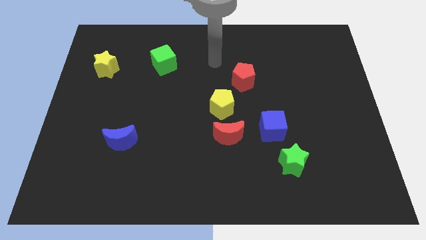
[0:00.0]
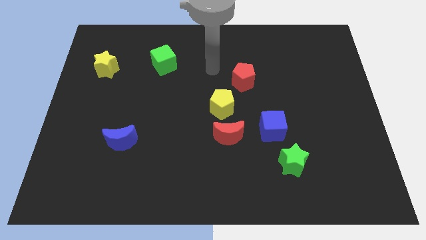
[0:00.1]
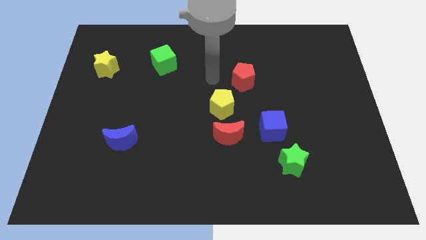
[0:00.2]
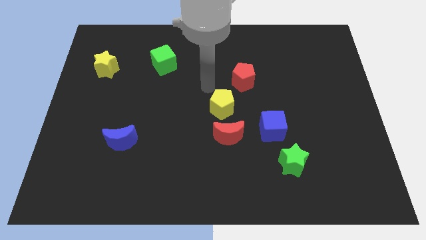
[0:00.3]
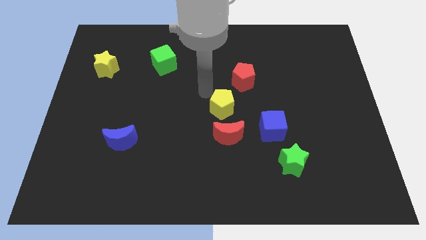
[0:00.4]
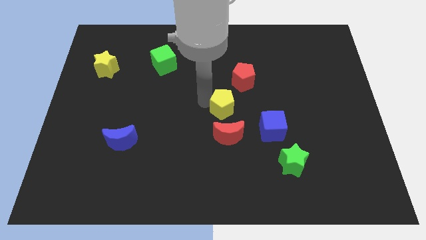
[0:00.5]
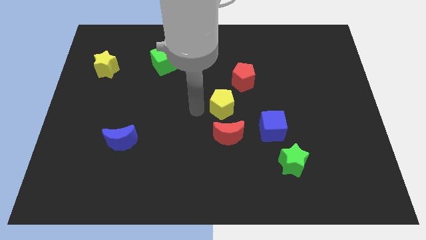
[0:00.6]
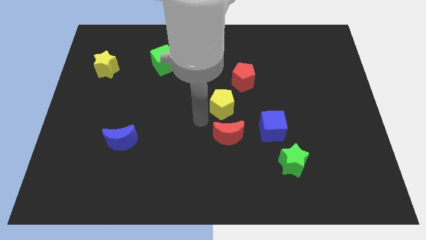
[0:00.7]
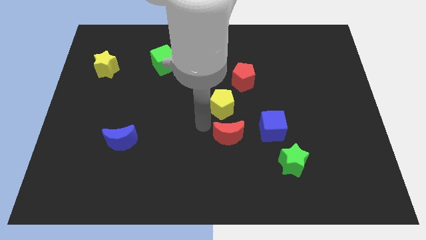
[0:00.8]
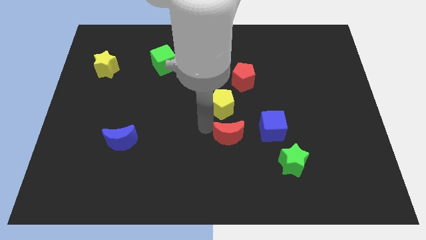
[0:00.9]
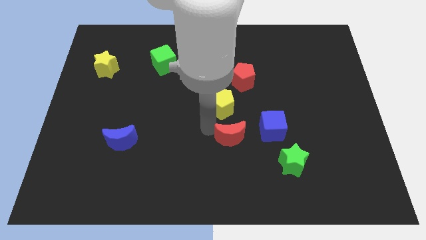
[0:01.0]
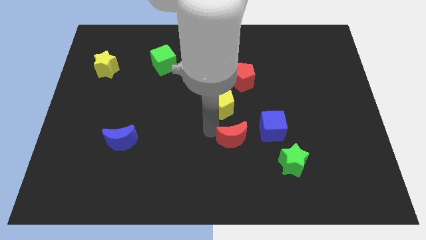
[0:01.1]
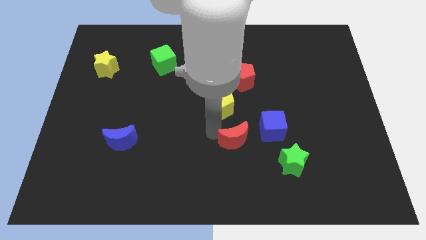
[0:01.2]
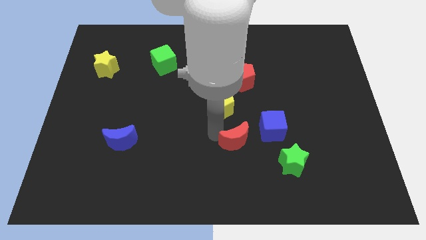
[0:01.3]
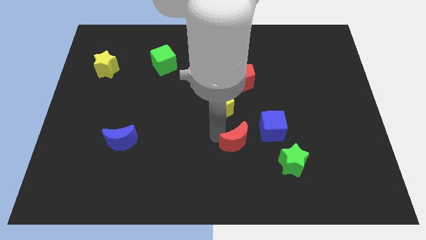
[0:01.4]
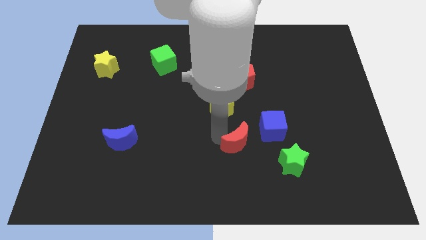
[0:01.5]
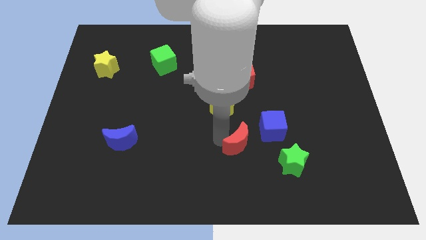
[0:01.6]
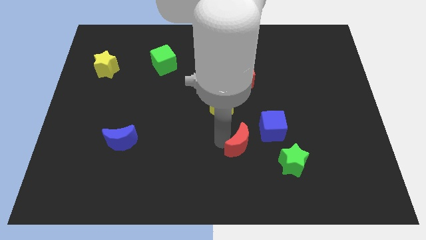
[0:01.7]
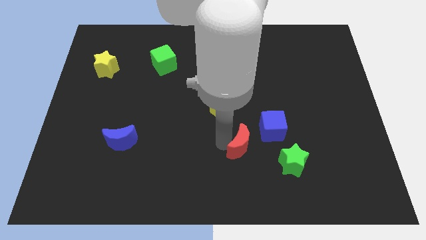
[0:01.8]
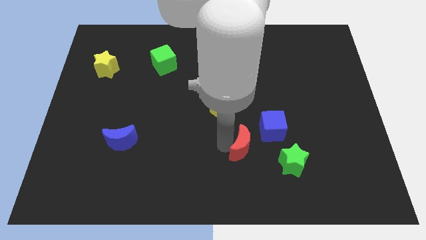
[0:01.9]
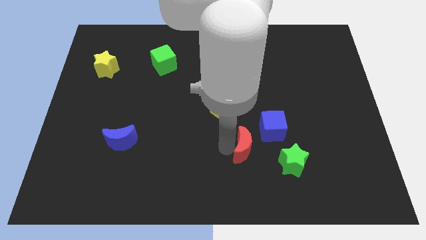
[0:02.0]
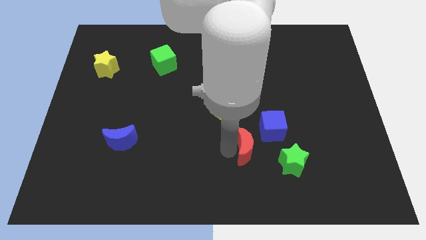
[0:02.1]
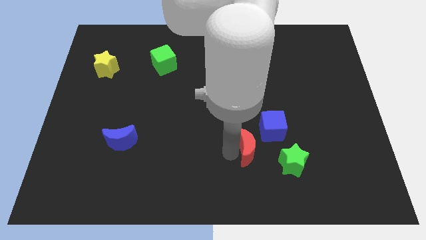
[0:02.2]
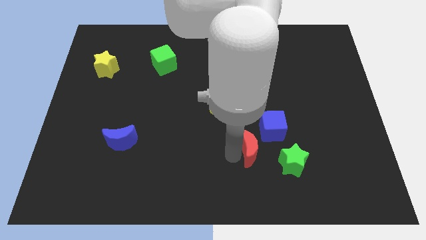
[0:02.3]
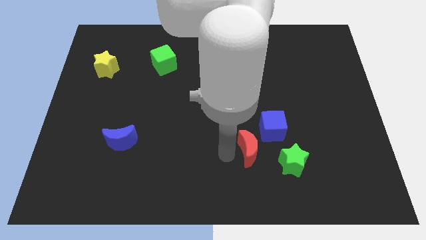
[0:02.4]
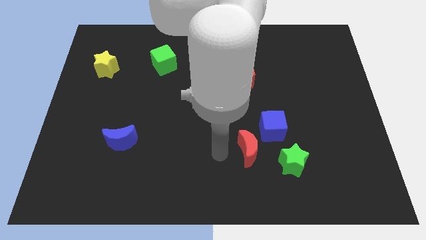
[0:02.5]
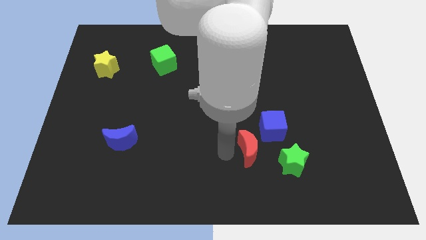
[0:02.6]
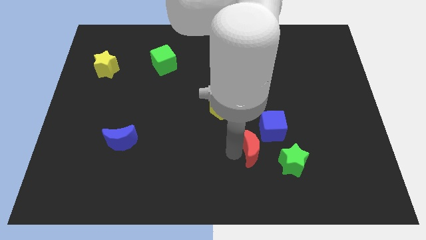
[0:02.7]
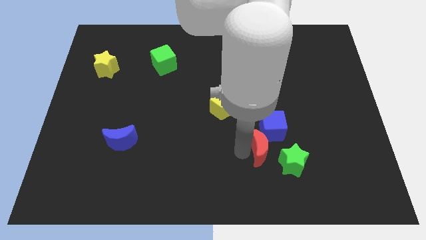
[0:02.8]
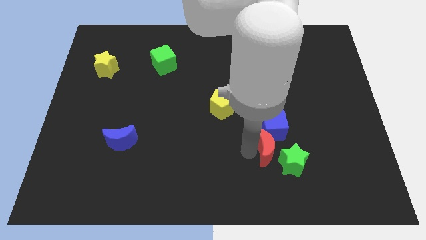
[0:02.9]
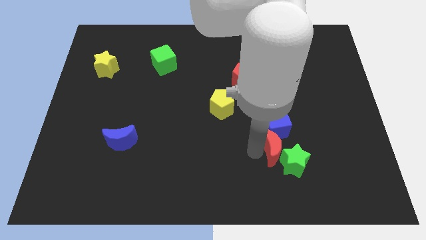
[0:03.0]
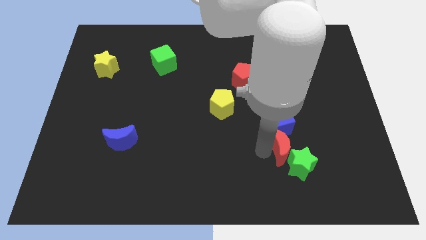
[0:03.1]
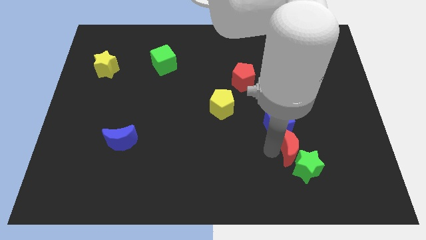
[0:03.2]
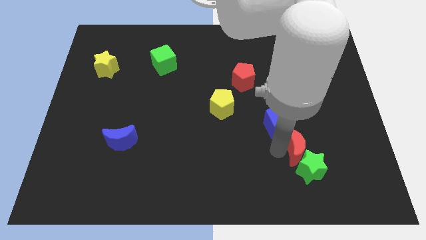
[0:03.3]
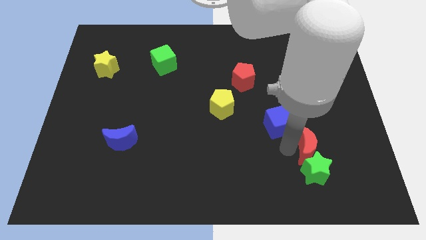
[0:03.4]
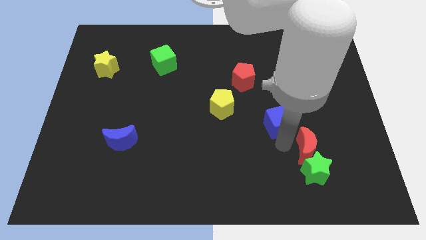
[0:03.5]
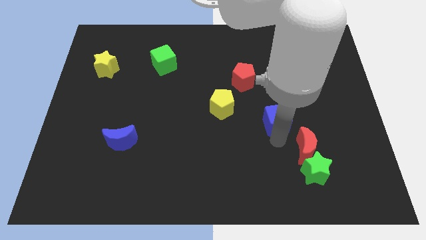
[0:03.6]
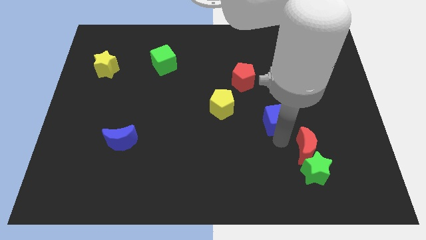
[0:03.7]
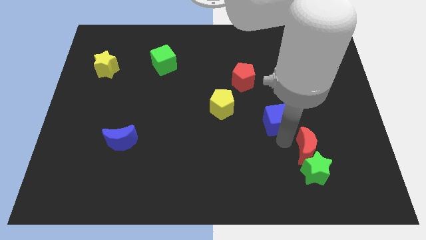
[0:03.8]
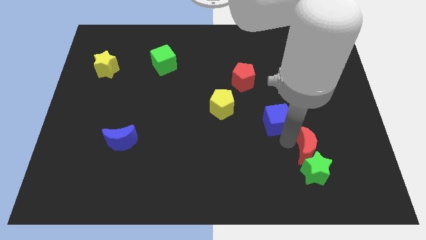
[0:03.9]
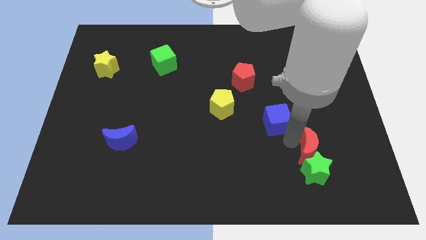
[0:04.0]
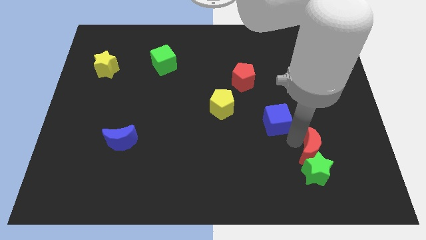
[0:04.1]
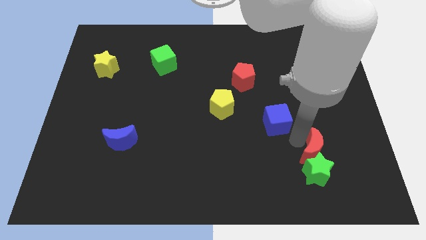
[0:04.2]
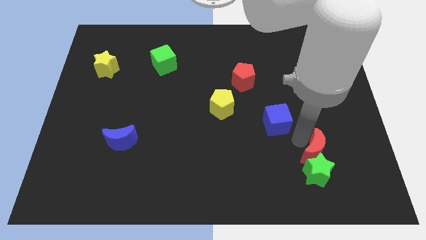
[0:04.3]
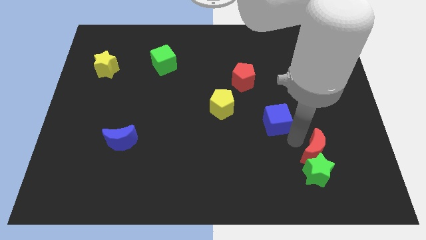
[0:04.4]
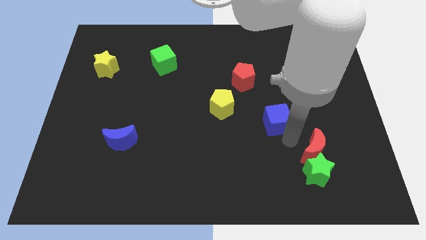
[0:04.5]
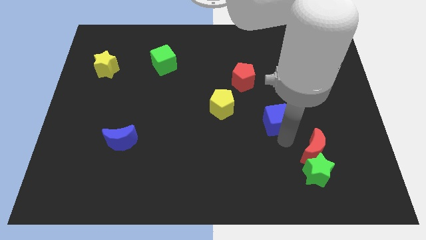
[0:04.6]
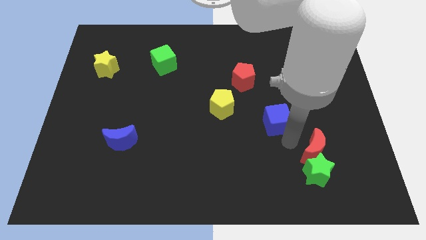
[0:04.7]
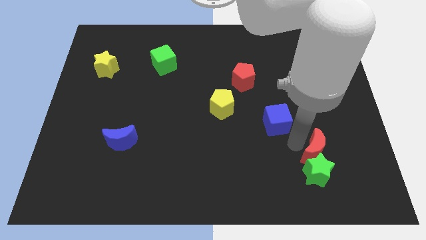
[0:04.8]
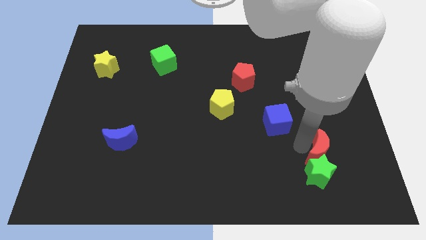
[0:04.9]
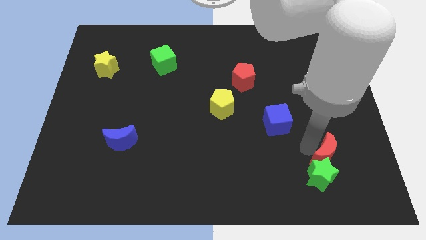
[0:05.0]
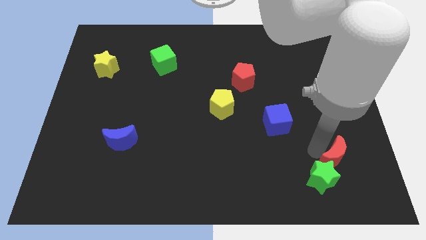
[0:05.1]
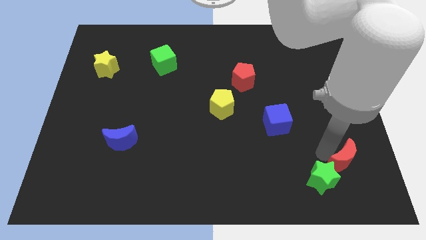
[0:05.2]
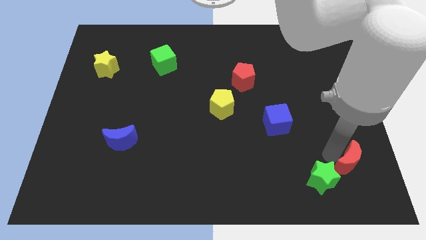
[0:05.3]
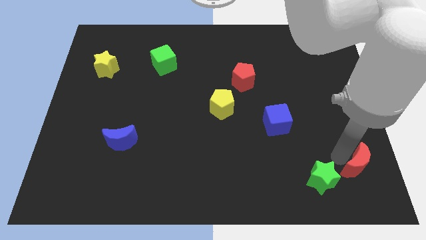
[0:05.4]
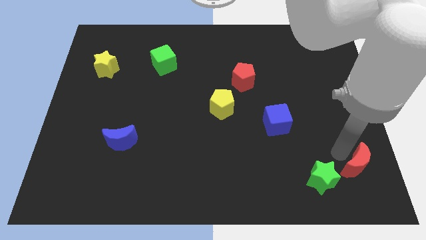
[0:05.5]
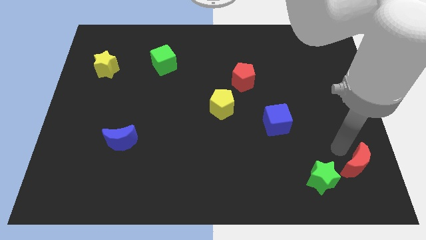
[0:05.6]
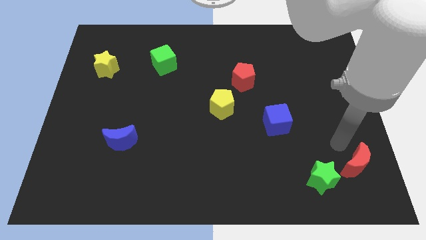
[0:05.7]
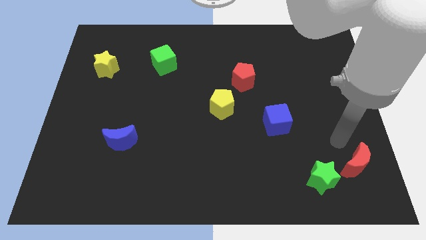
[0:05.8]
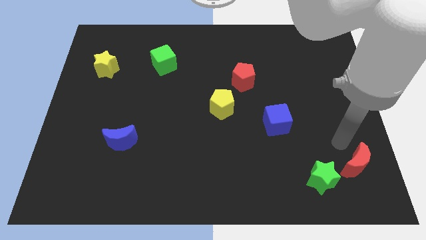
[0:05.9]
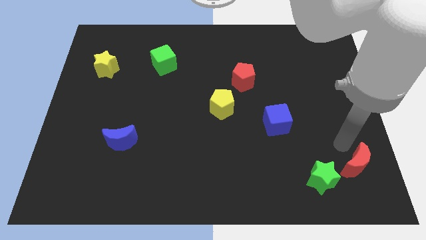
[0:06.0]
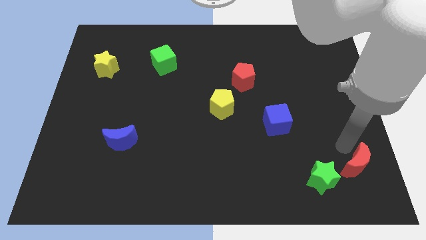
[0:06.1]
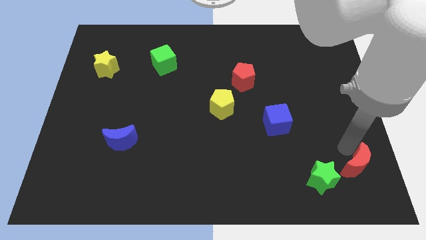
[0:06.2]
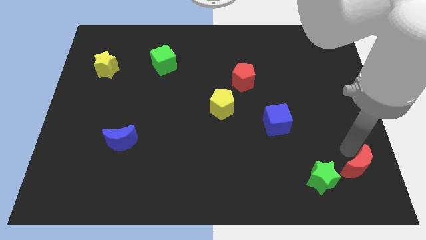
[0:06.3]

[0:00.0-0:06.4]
slide the red moon to the lower right corner
